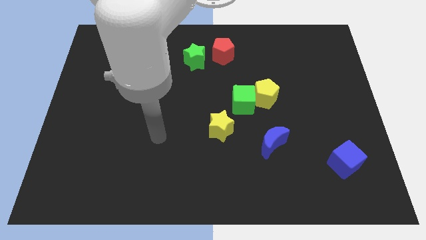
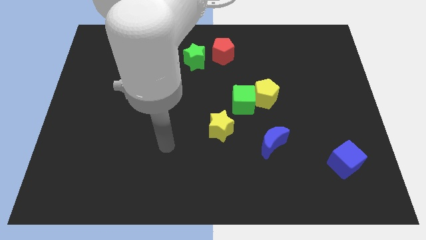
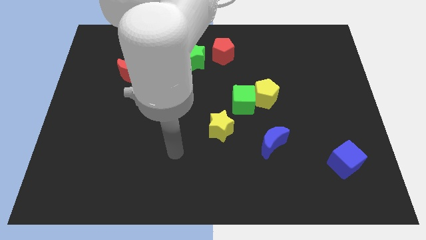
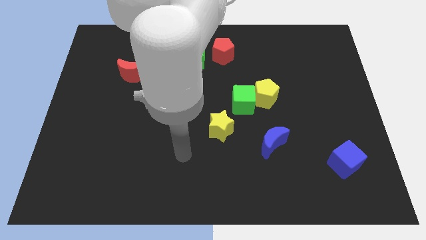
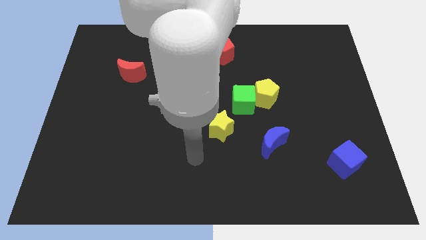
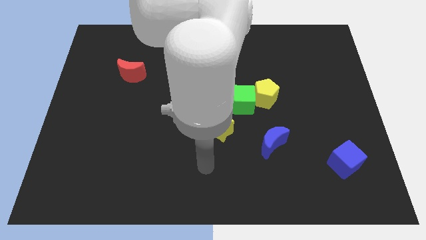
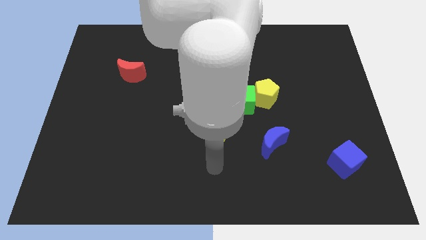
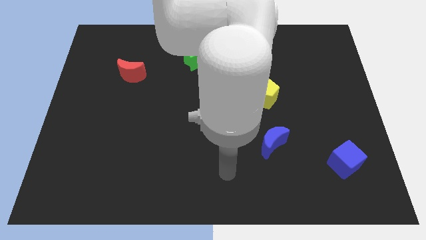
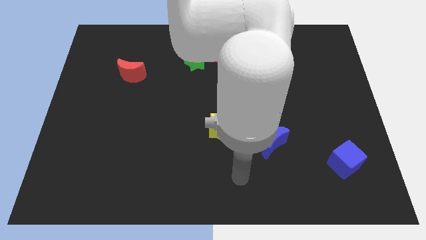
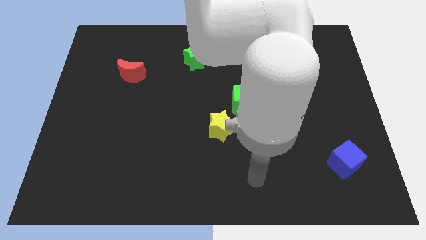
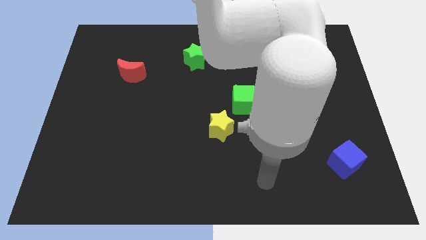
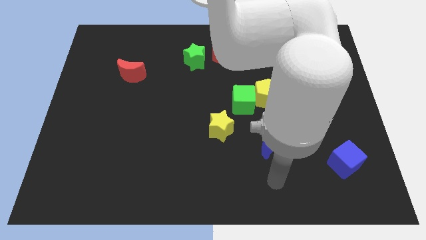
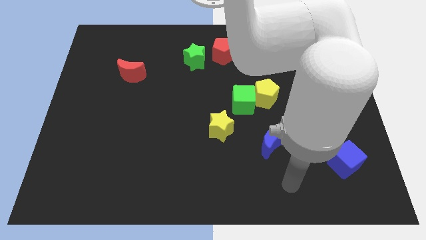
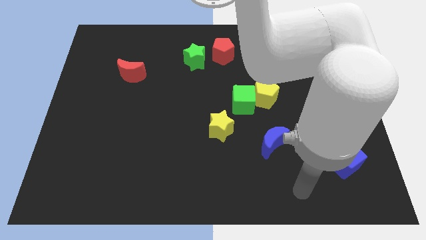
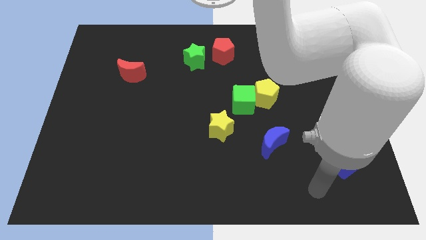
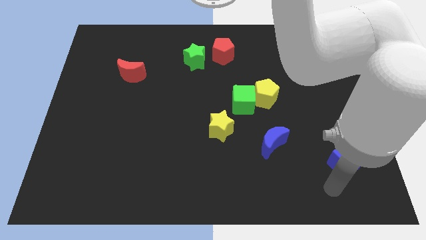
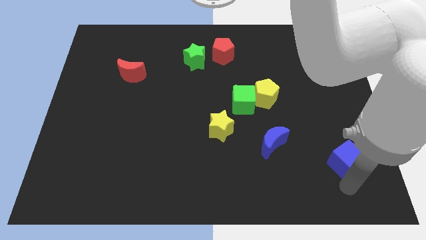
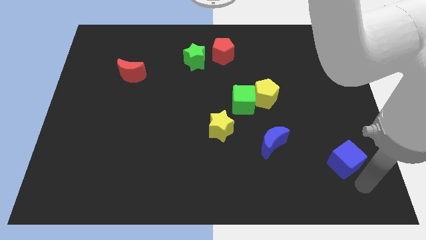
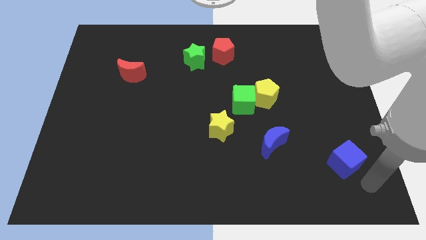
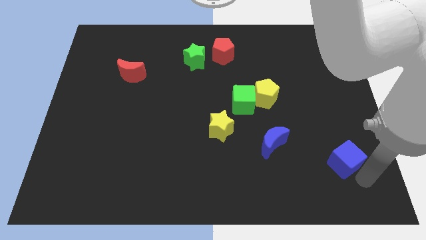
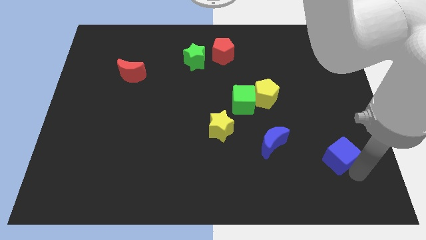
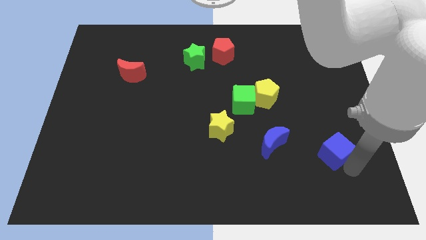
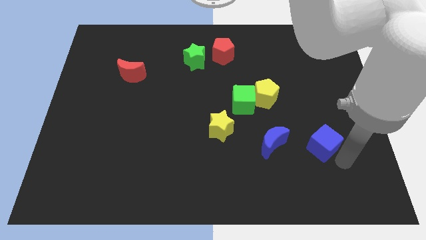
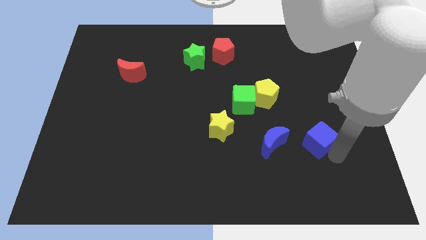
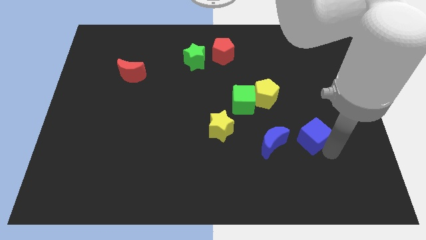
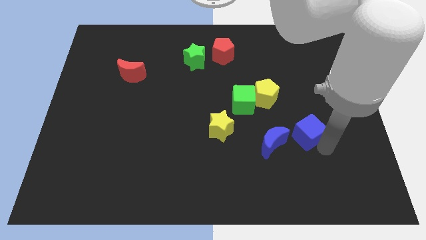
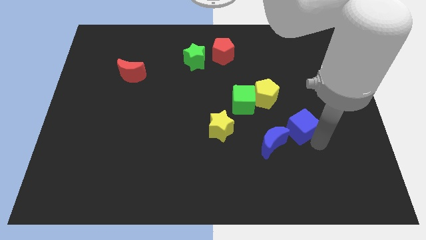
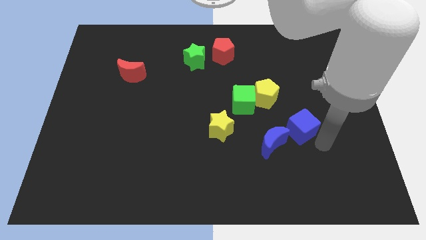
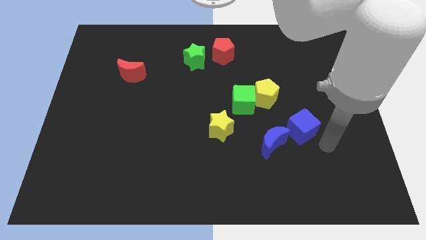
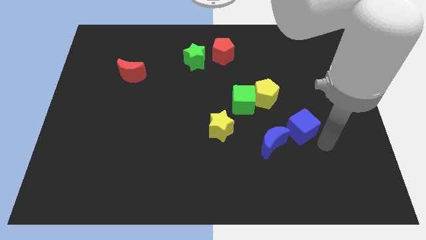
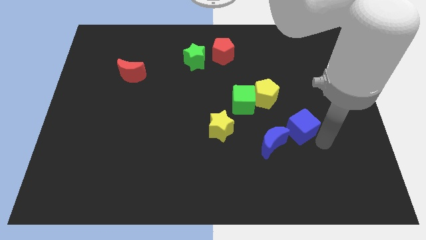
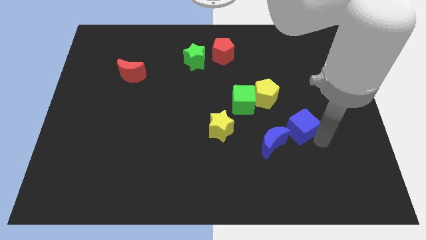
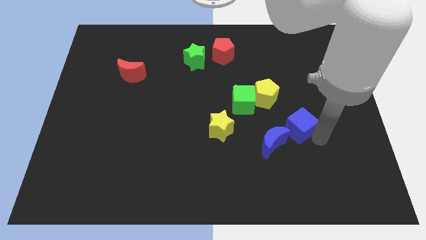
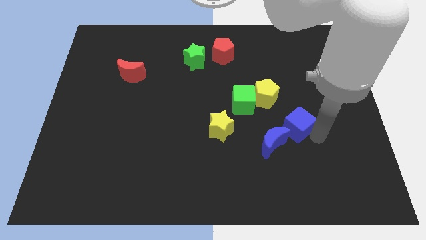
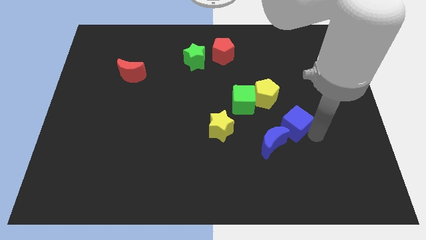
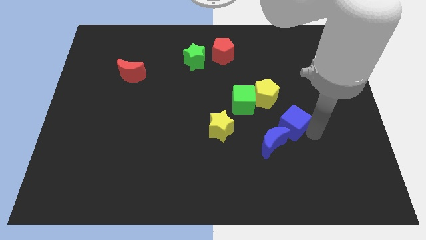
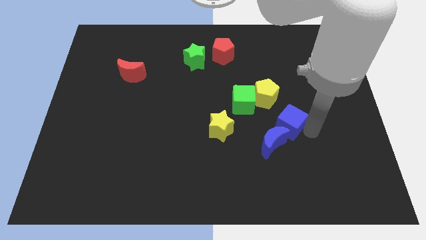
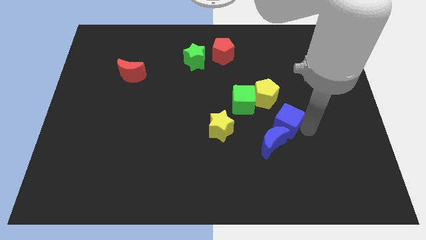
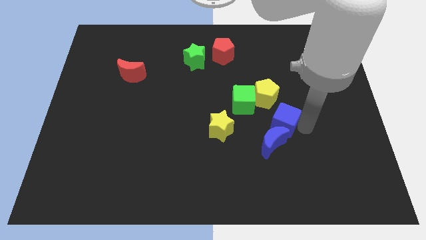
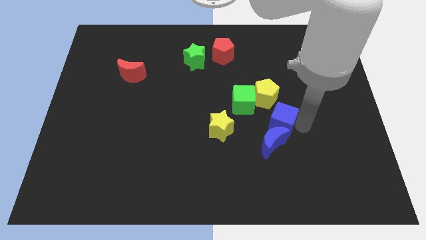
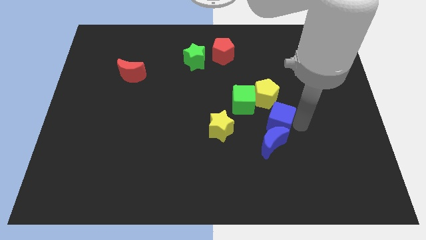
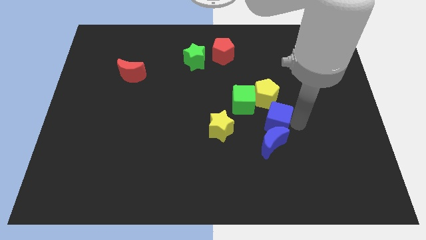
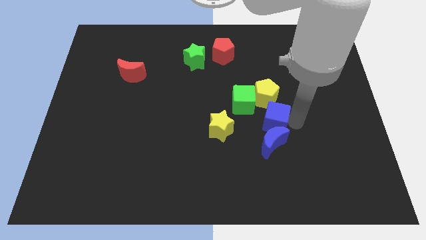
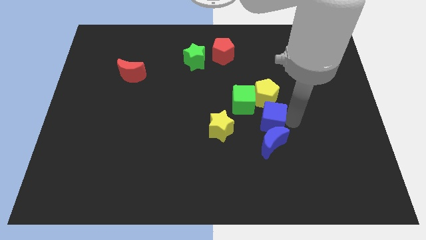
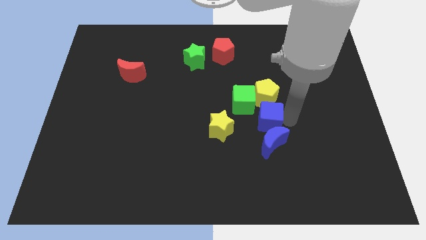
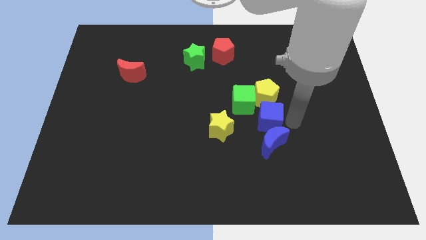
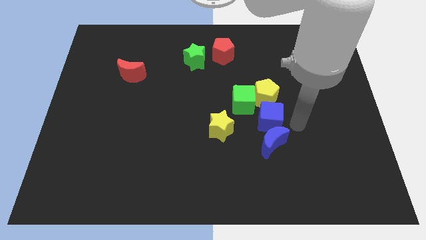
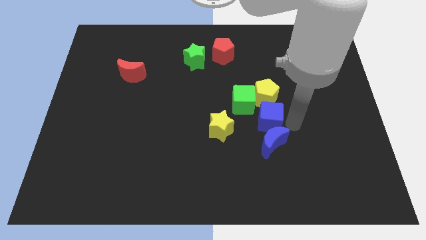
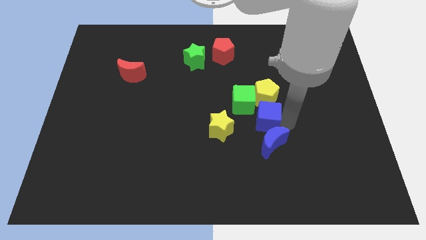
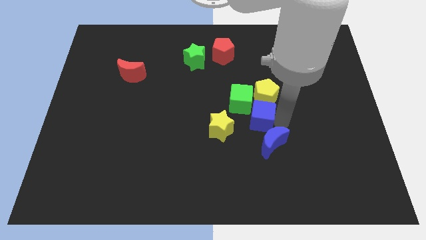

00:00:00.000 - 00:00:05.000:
slide the blue cube to the middle of the board

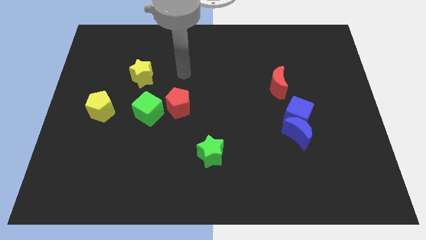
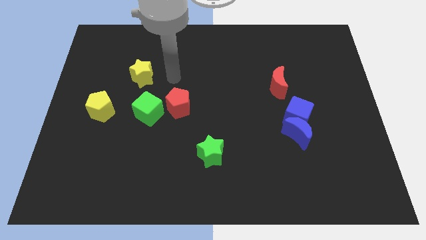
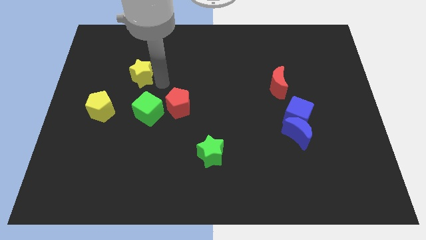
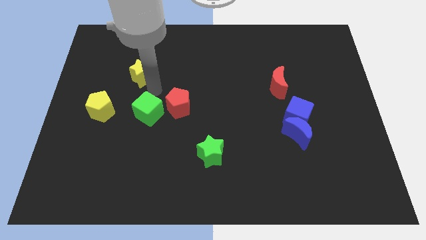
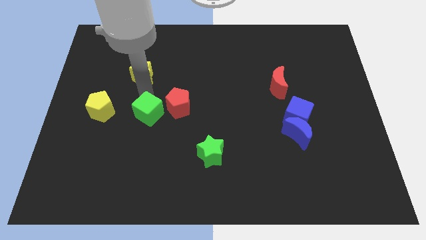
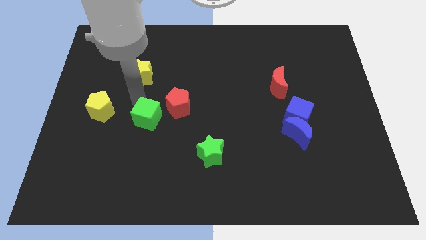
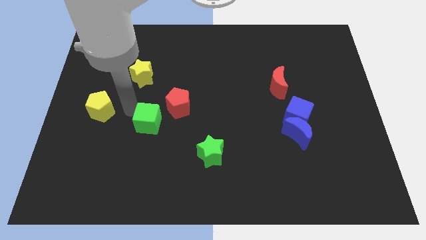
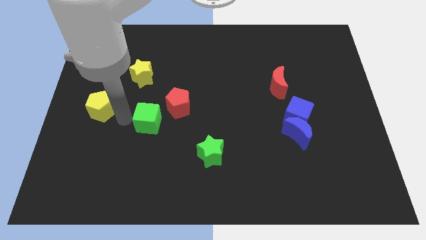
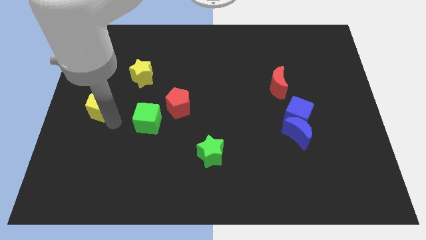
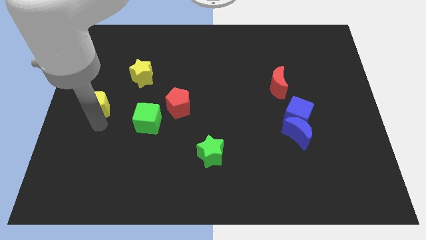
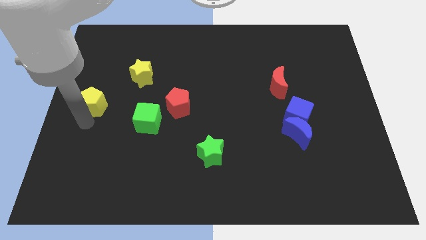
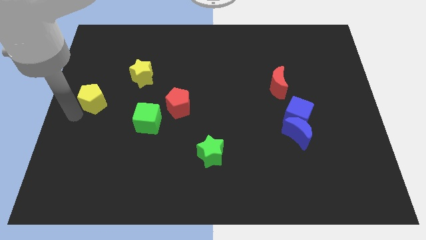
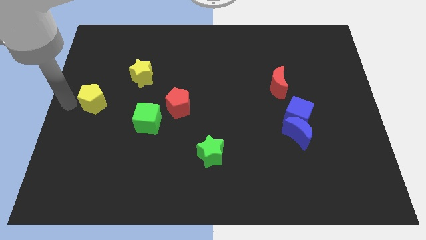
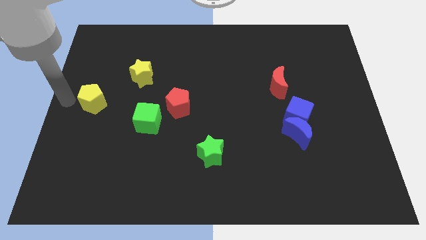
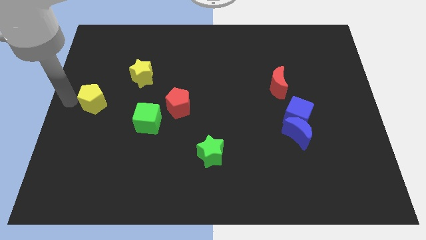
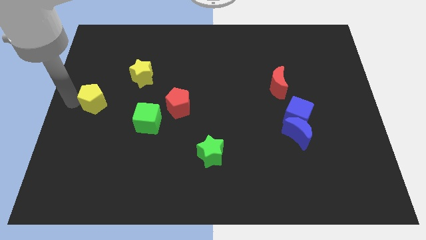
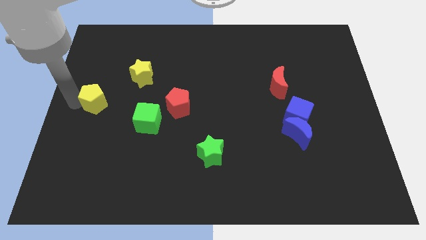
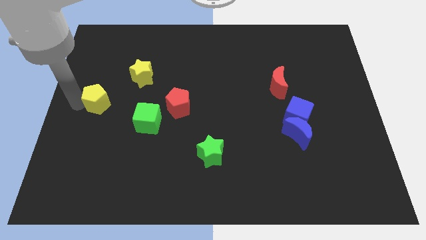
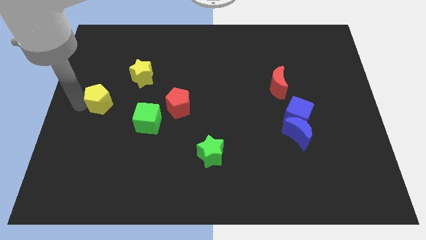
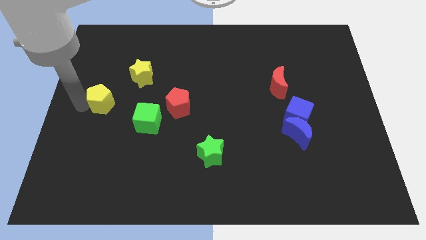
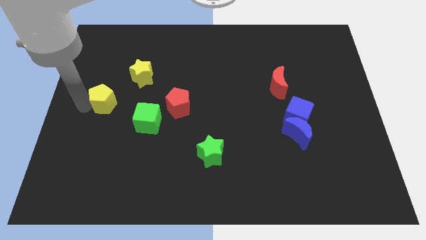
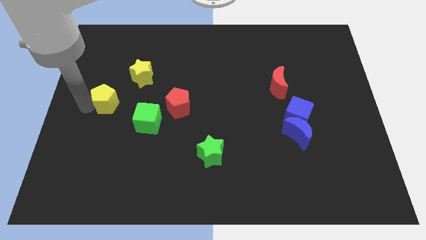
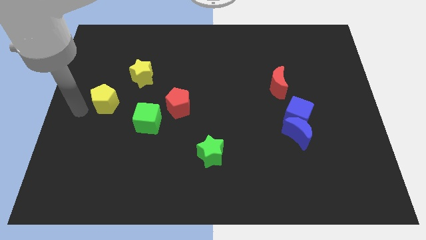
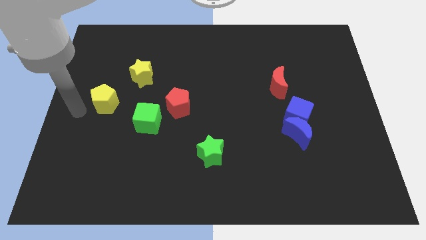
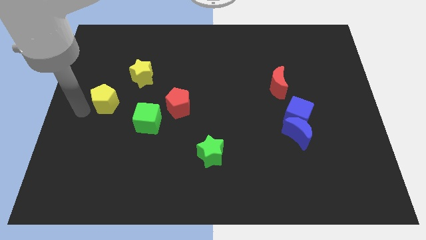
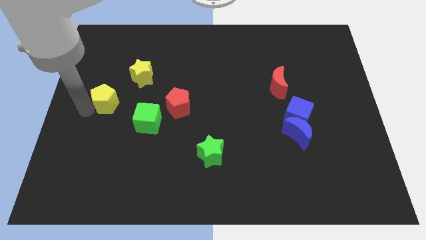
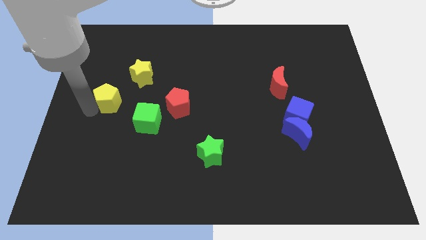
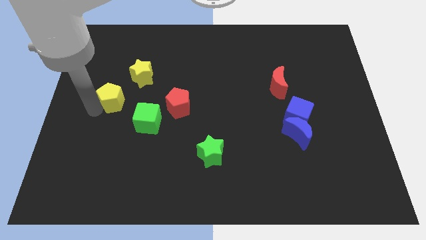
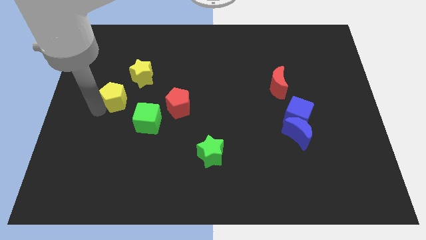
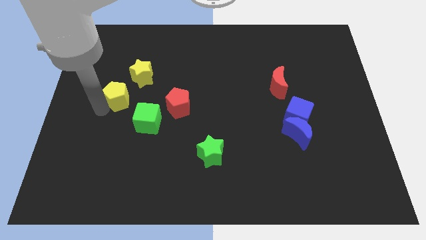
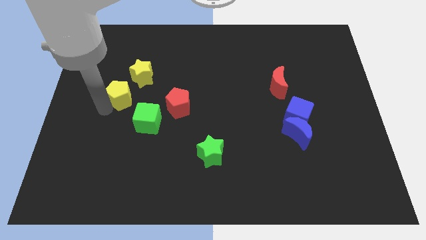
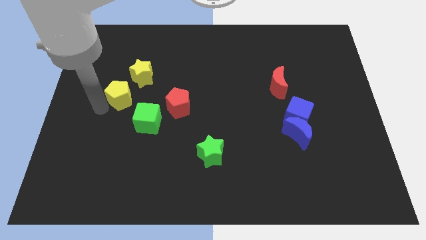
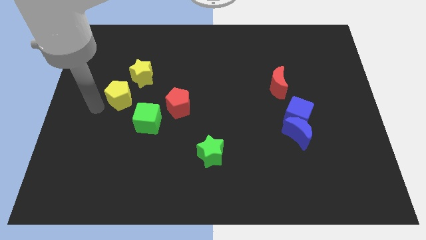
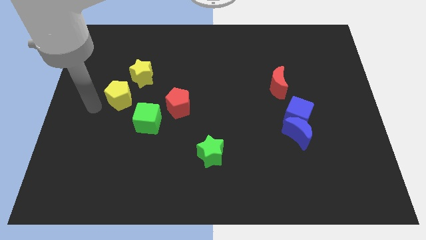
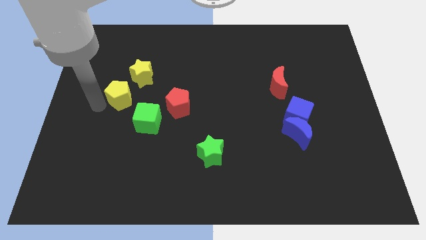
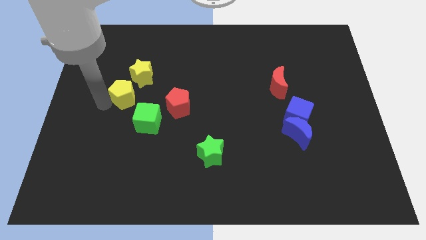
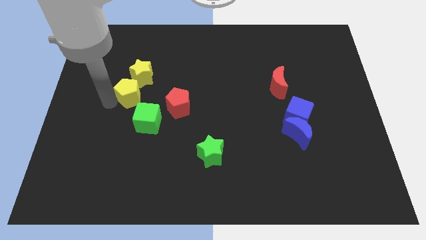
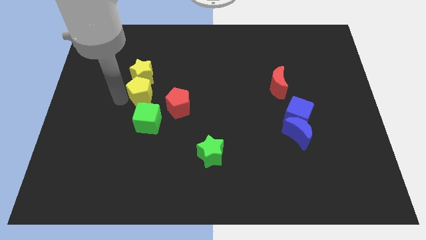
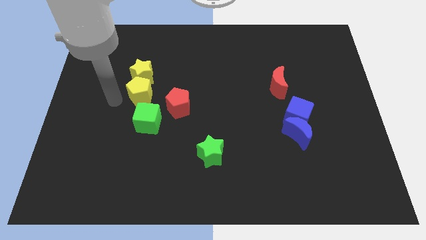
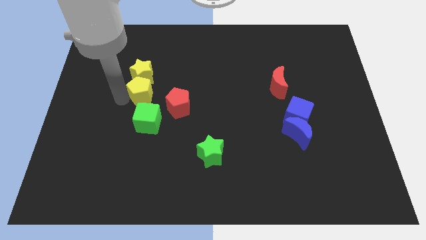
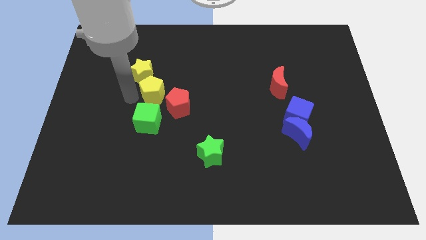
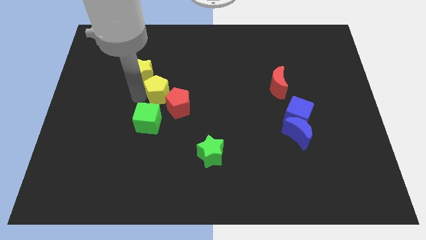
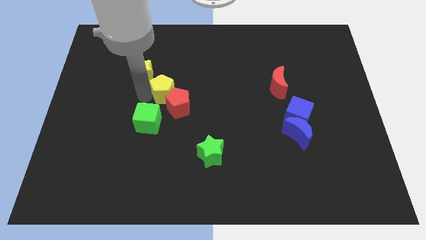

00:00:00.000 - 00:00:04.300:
slide the yellow pentagon to the center
